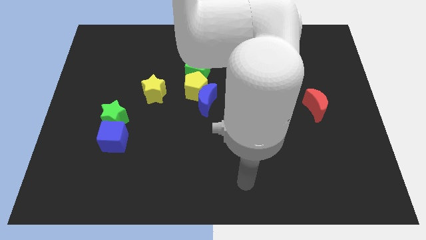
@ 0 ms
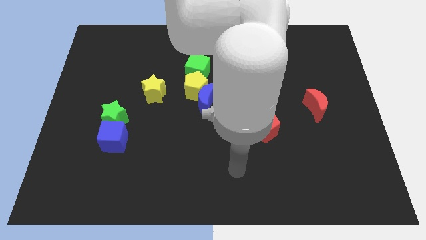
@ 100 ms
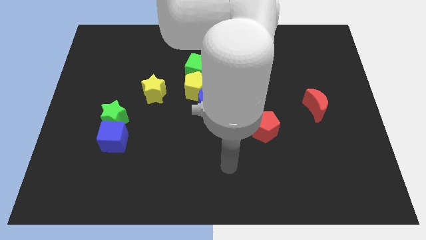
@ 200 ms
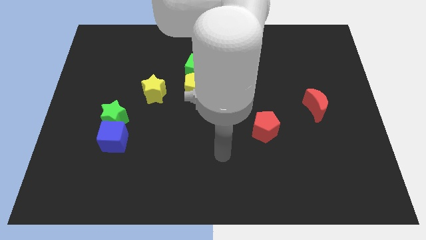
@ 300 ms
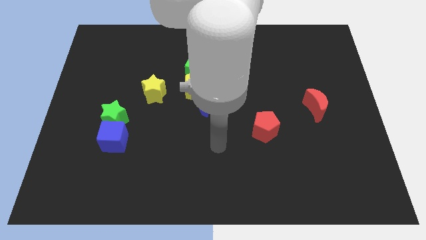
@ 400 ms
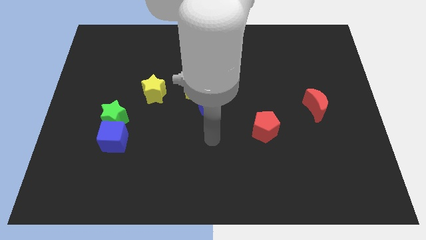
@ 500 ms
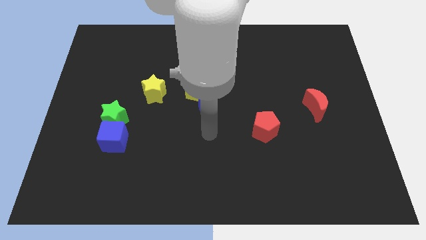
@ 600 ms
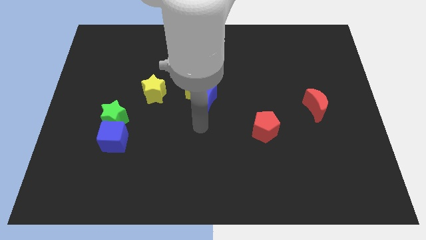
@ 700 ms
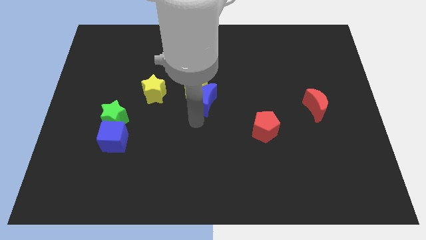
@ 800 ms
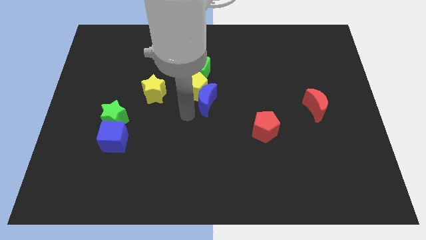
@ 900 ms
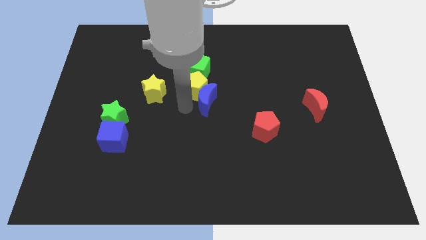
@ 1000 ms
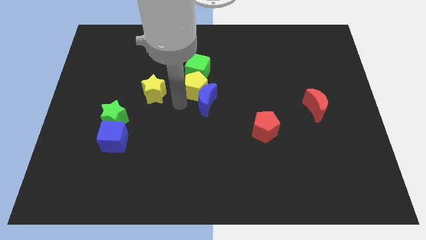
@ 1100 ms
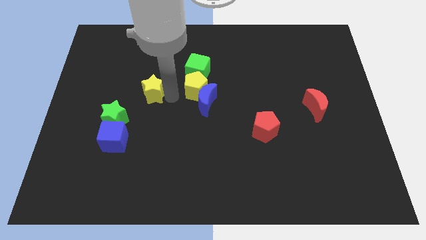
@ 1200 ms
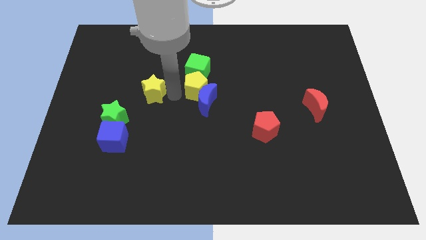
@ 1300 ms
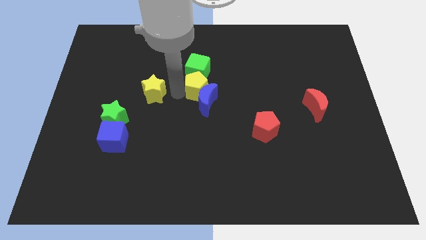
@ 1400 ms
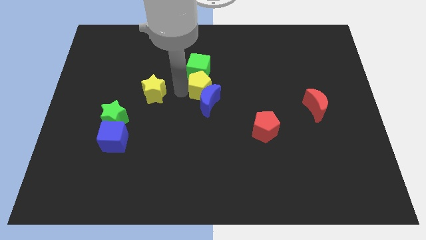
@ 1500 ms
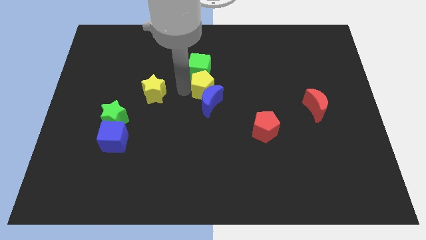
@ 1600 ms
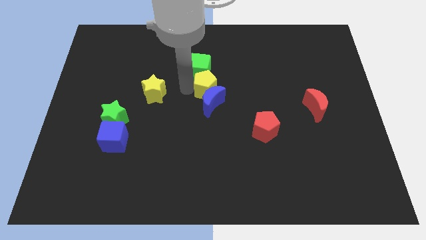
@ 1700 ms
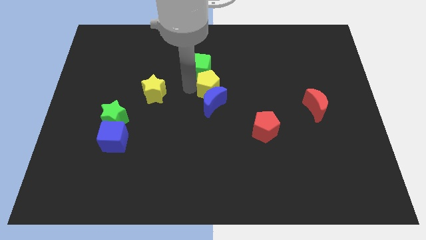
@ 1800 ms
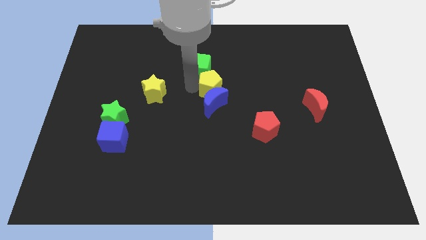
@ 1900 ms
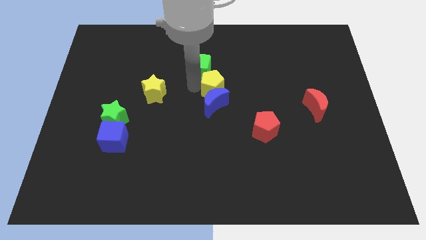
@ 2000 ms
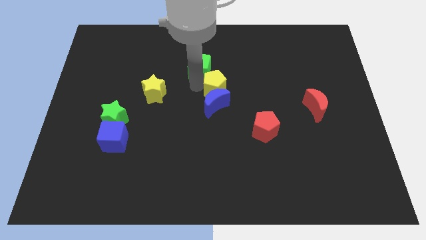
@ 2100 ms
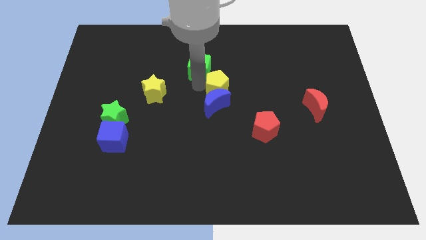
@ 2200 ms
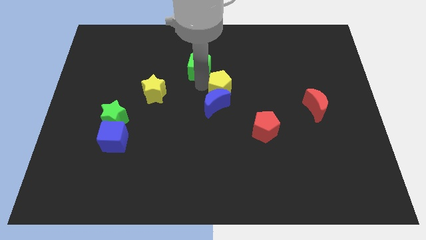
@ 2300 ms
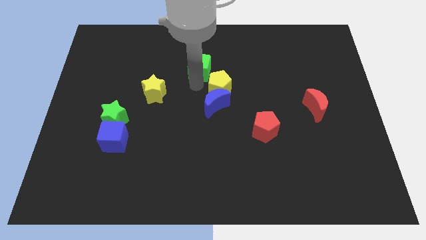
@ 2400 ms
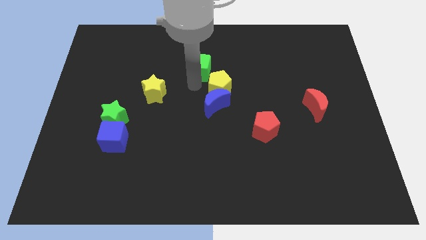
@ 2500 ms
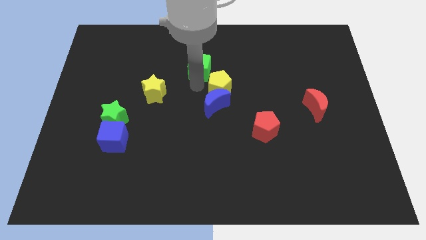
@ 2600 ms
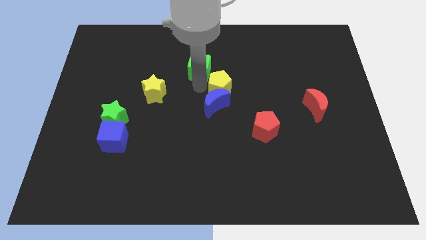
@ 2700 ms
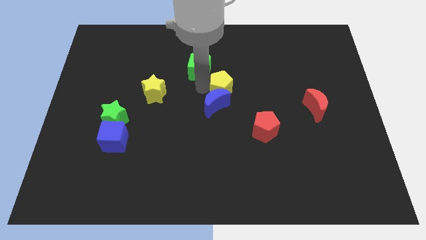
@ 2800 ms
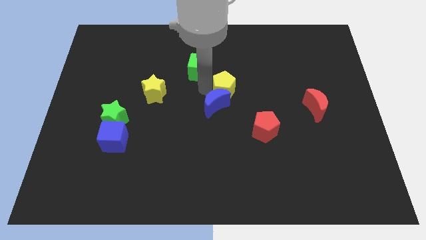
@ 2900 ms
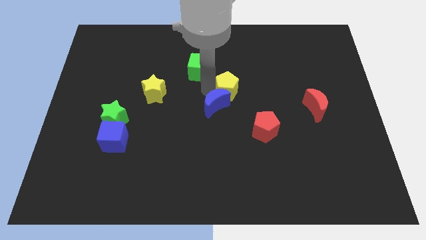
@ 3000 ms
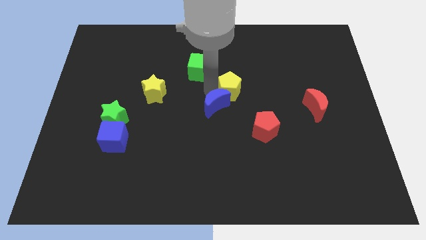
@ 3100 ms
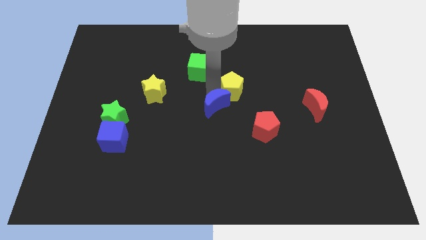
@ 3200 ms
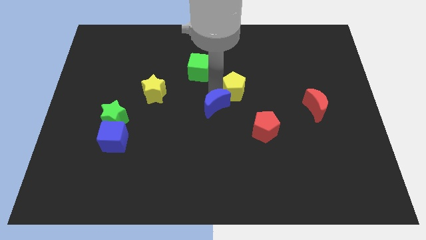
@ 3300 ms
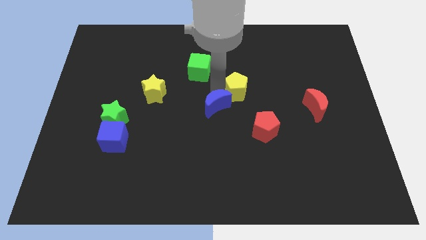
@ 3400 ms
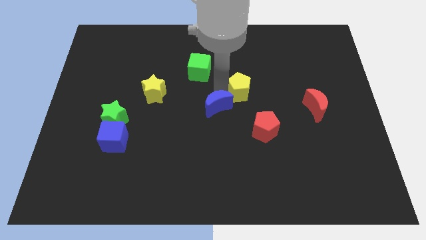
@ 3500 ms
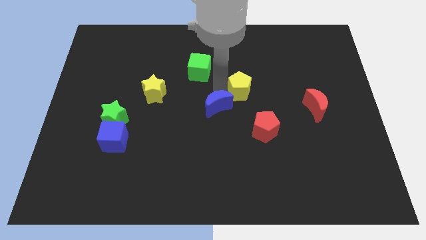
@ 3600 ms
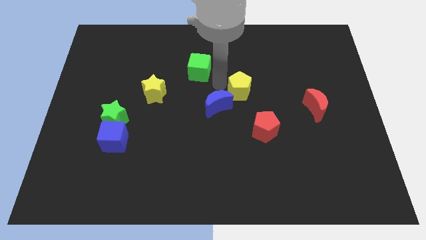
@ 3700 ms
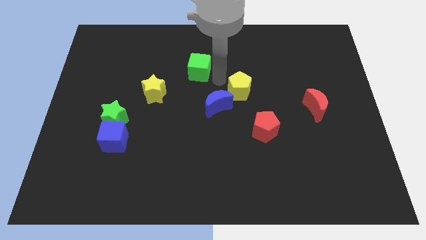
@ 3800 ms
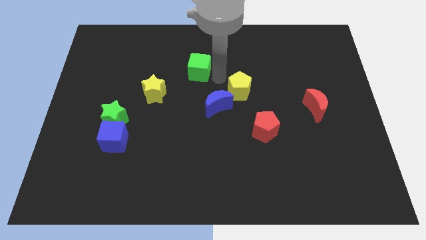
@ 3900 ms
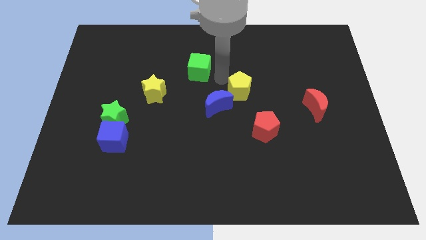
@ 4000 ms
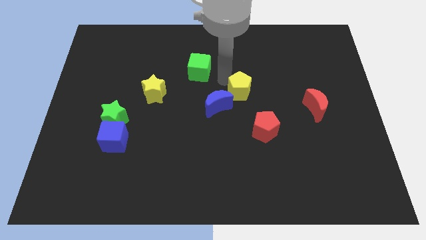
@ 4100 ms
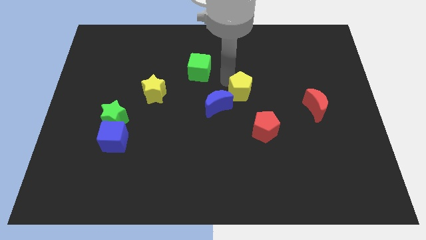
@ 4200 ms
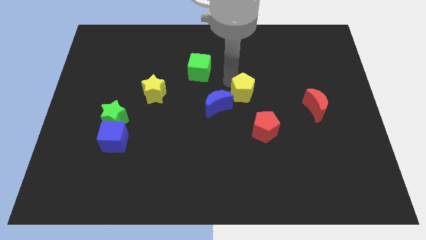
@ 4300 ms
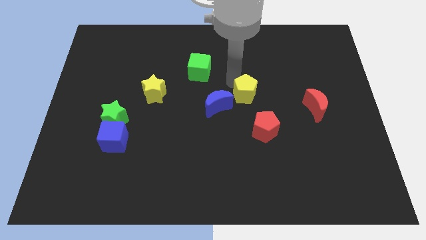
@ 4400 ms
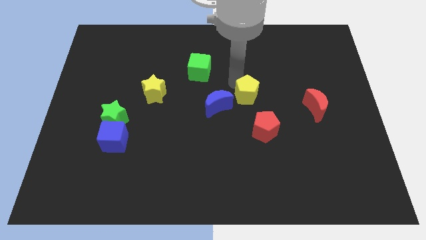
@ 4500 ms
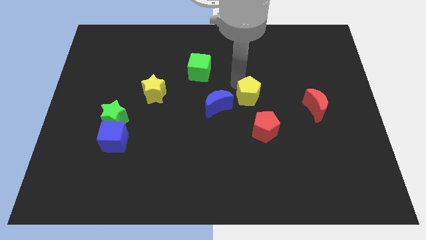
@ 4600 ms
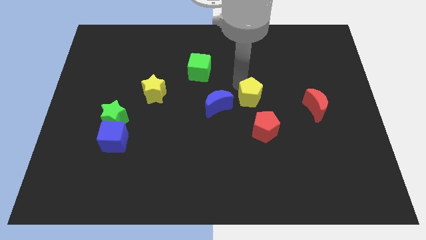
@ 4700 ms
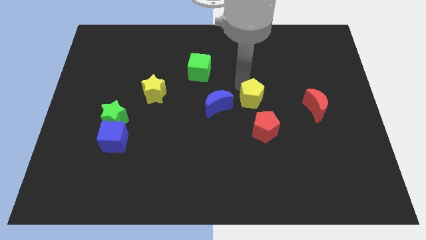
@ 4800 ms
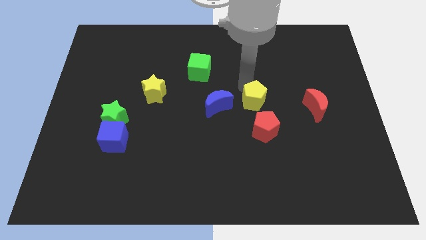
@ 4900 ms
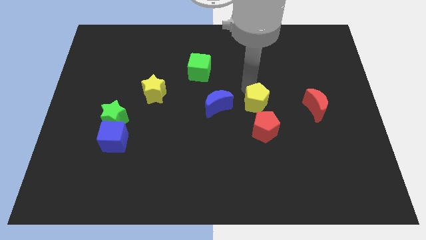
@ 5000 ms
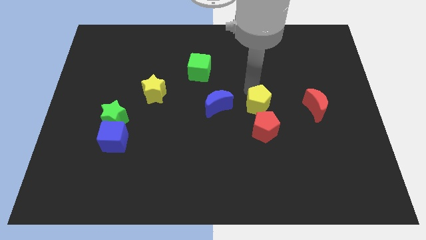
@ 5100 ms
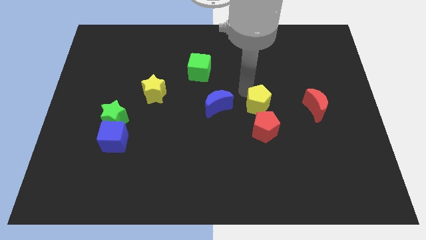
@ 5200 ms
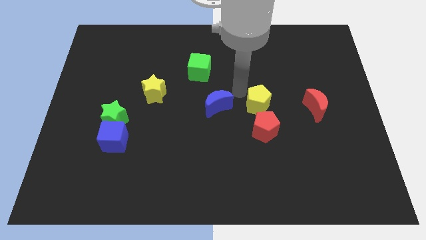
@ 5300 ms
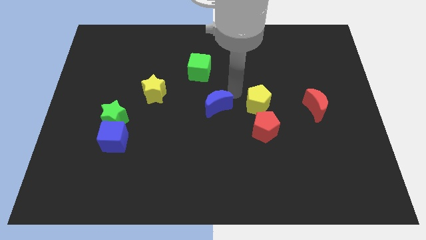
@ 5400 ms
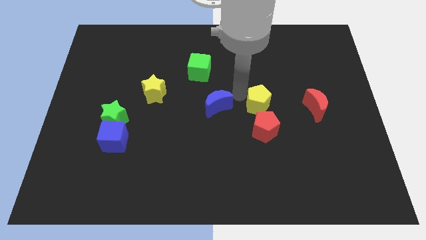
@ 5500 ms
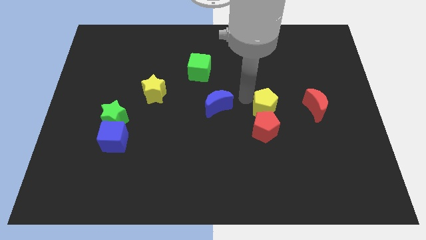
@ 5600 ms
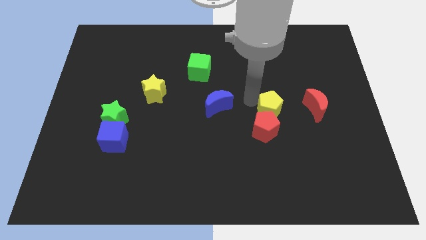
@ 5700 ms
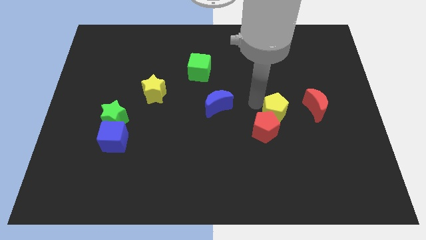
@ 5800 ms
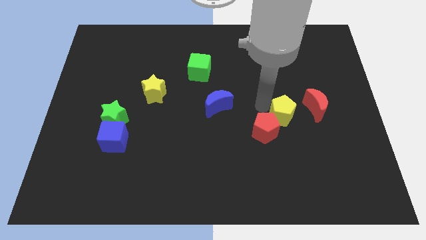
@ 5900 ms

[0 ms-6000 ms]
put the yellow pentagon to the bottom left side of the red moon

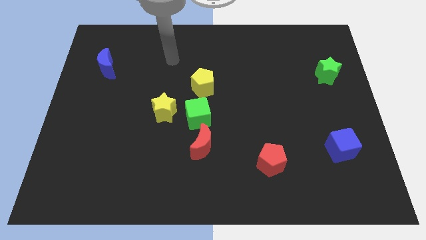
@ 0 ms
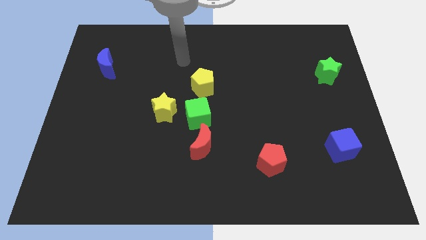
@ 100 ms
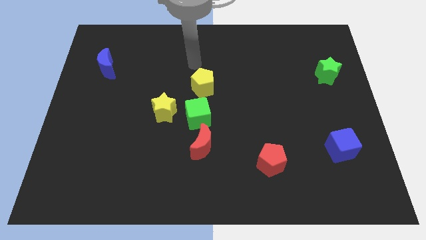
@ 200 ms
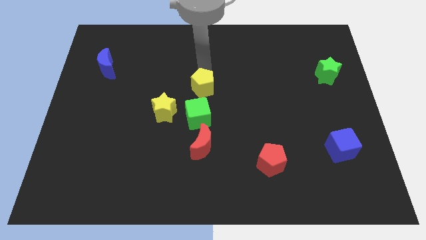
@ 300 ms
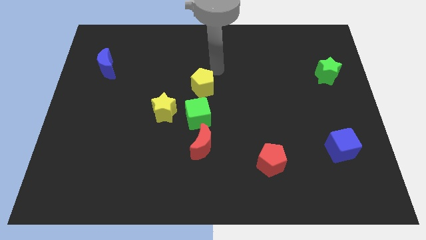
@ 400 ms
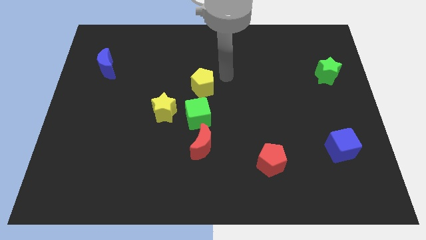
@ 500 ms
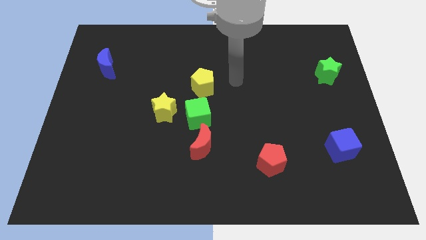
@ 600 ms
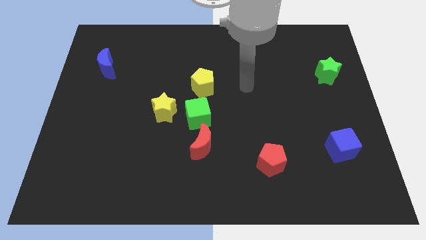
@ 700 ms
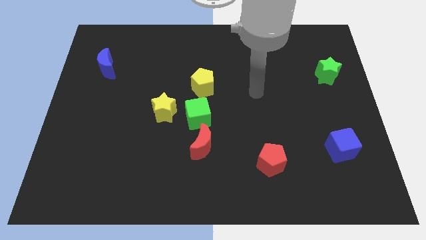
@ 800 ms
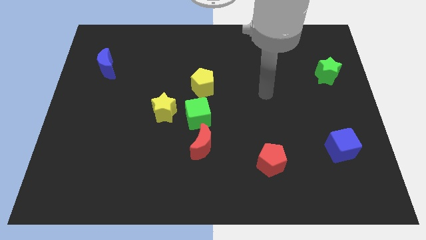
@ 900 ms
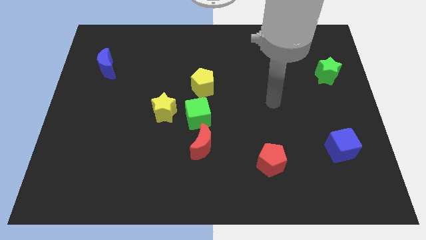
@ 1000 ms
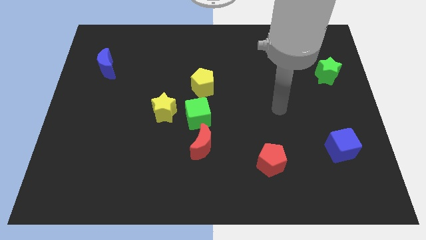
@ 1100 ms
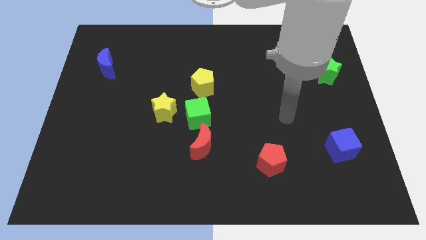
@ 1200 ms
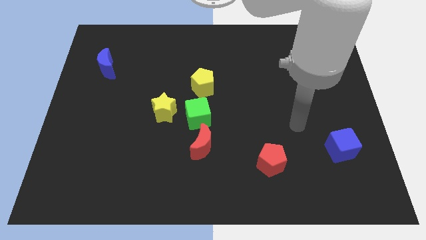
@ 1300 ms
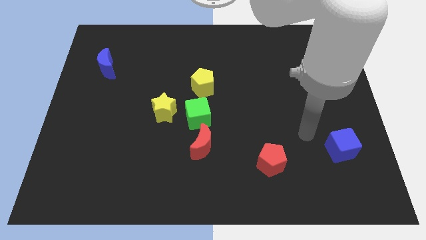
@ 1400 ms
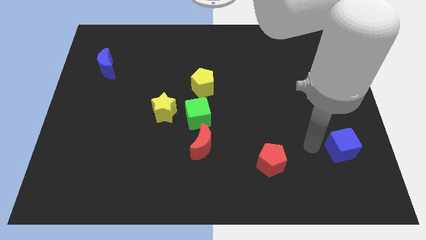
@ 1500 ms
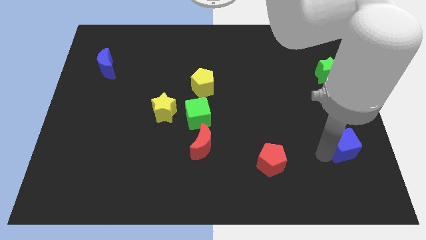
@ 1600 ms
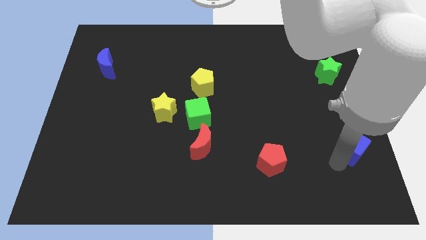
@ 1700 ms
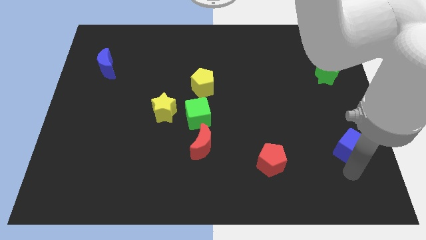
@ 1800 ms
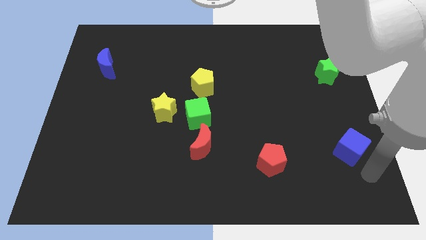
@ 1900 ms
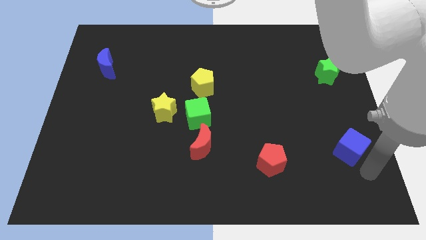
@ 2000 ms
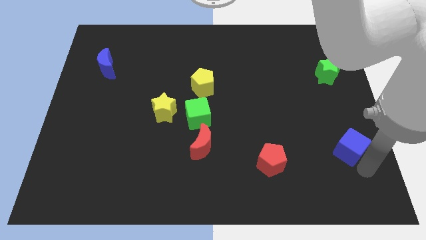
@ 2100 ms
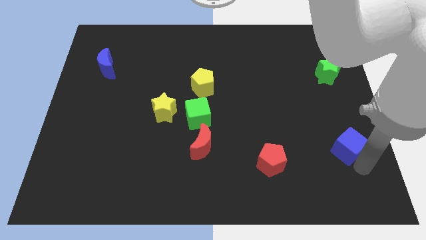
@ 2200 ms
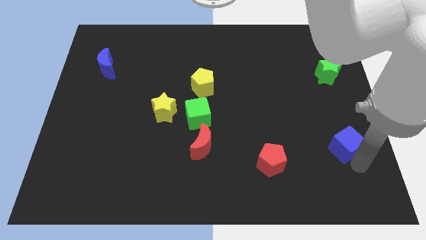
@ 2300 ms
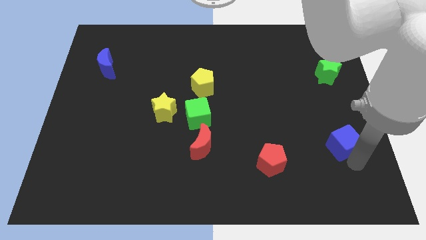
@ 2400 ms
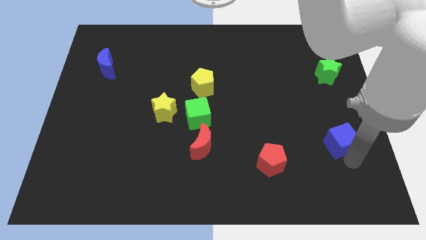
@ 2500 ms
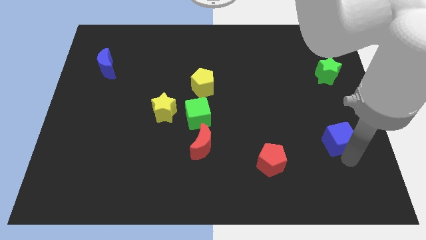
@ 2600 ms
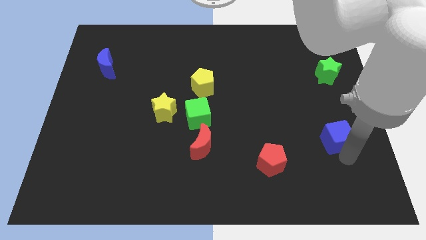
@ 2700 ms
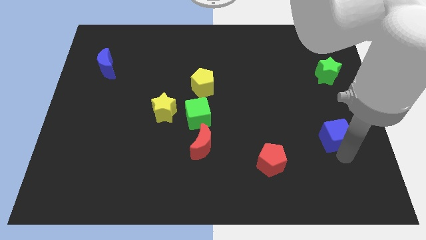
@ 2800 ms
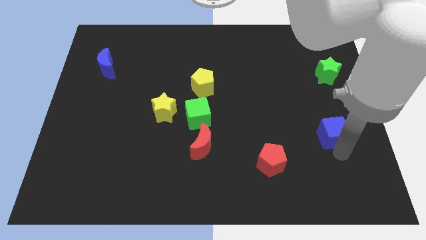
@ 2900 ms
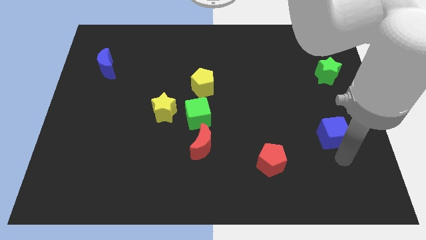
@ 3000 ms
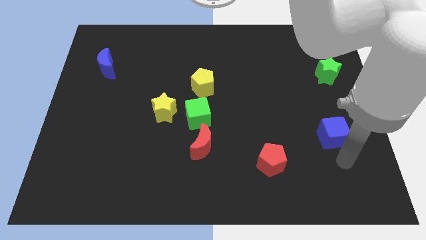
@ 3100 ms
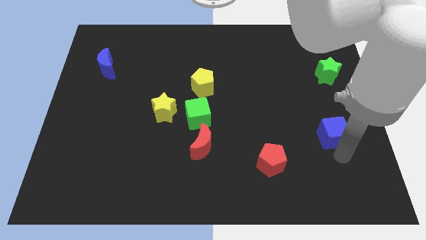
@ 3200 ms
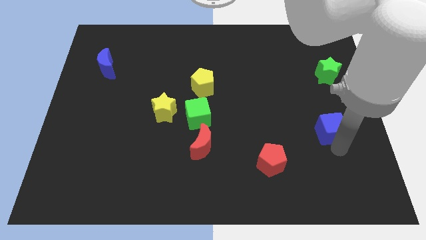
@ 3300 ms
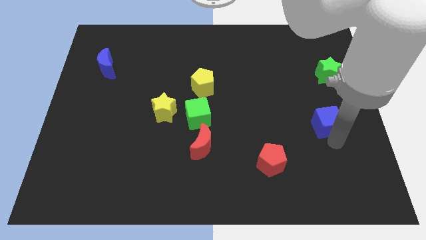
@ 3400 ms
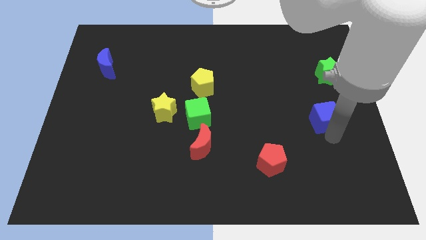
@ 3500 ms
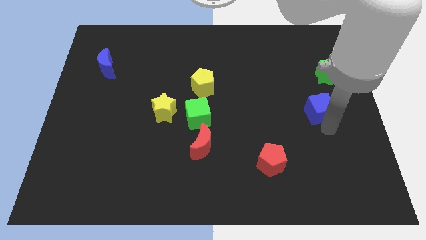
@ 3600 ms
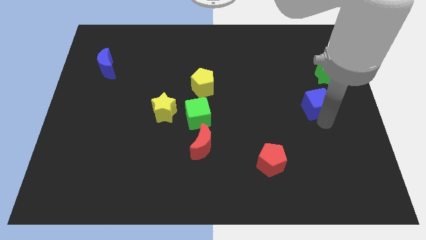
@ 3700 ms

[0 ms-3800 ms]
slide the blue cube diagonally down and to the left of the green star
